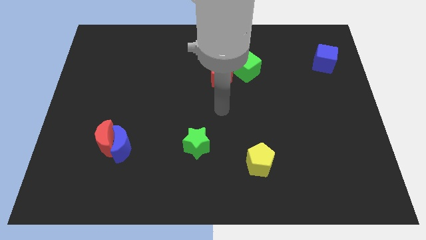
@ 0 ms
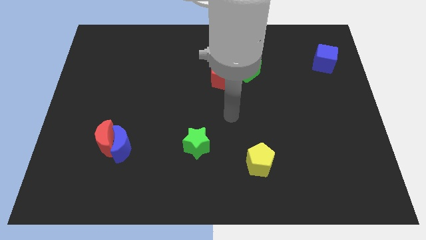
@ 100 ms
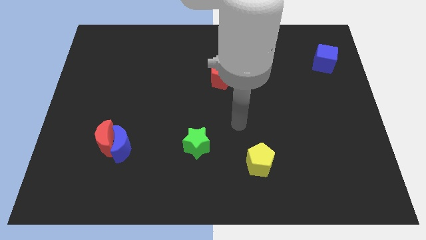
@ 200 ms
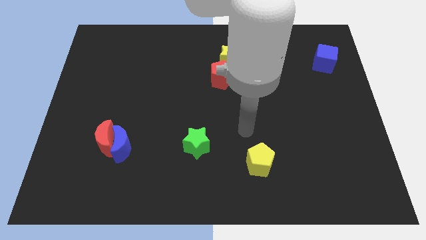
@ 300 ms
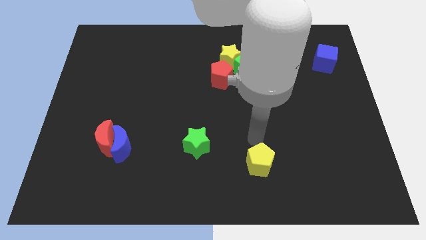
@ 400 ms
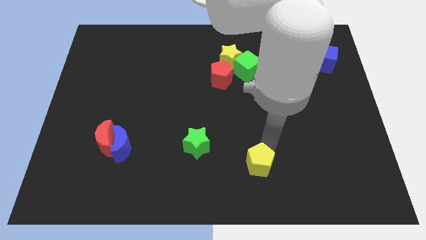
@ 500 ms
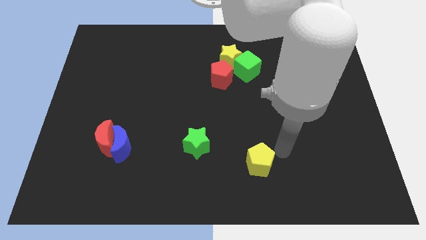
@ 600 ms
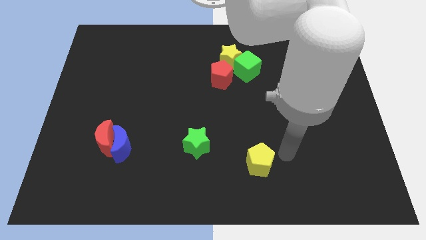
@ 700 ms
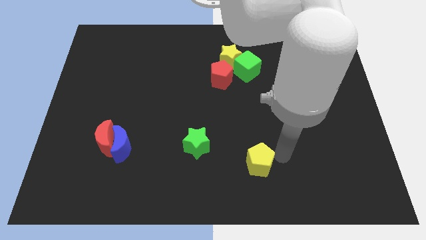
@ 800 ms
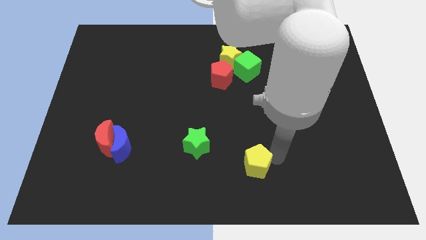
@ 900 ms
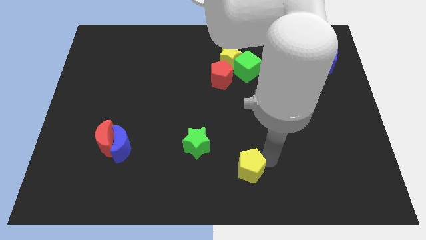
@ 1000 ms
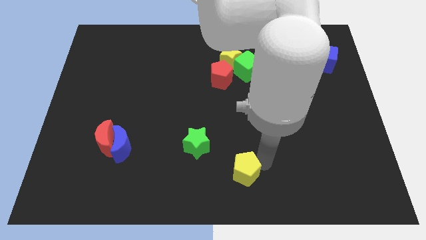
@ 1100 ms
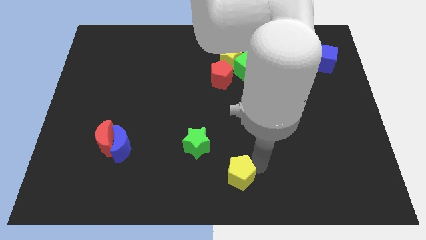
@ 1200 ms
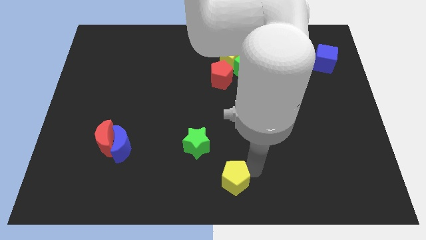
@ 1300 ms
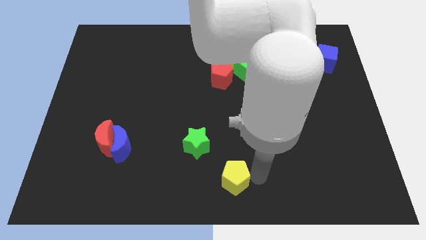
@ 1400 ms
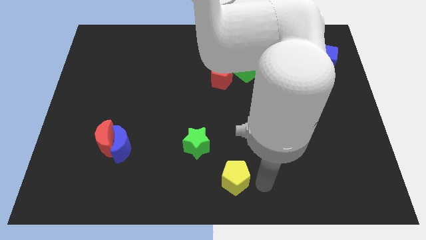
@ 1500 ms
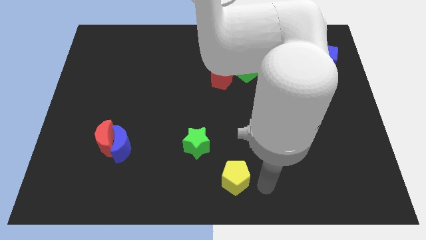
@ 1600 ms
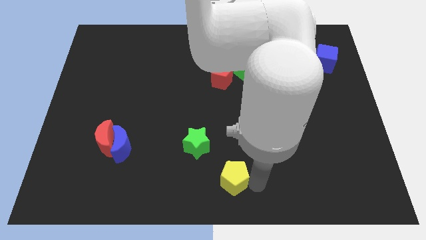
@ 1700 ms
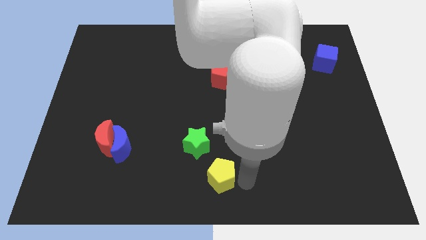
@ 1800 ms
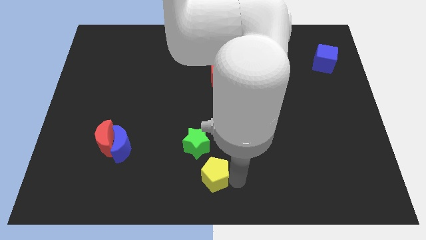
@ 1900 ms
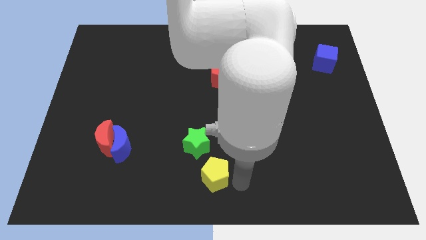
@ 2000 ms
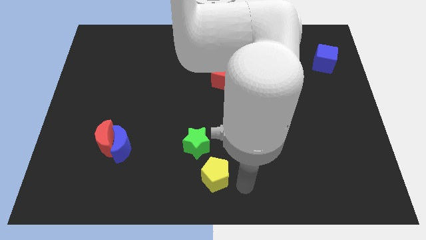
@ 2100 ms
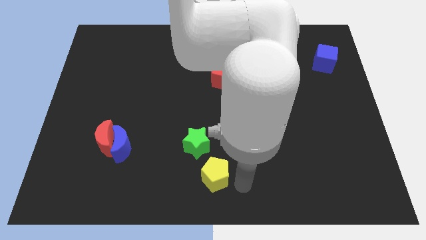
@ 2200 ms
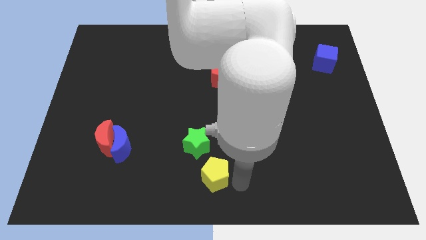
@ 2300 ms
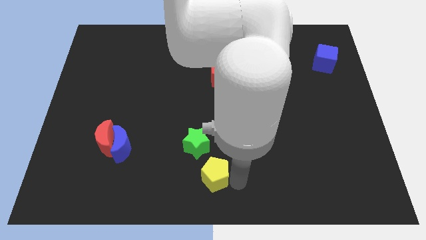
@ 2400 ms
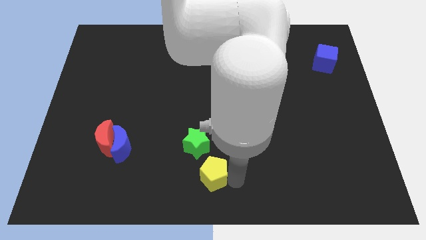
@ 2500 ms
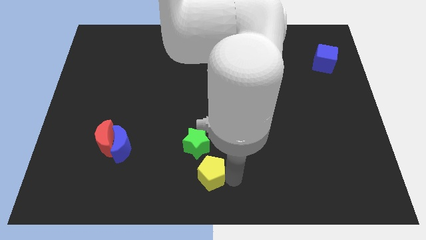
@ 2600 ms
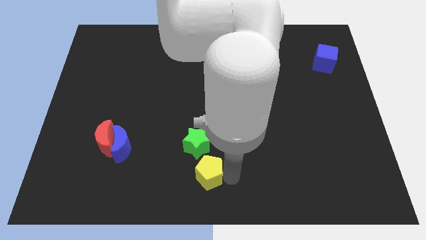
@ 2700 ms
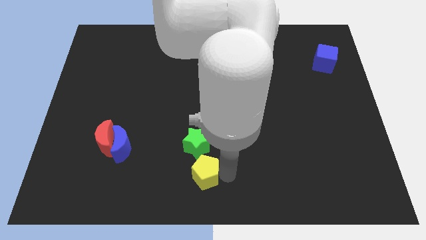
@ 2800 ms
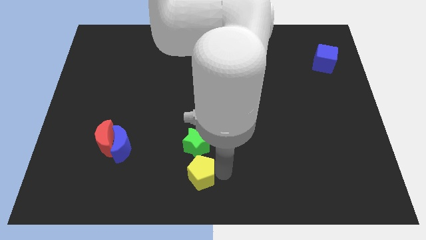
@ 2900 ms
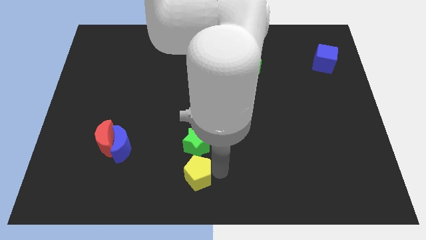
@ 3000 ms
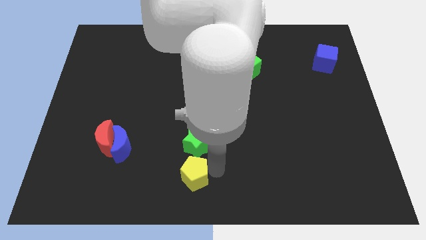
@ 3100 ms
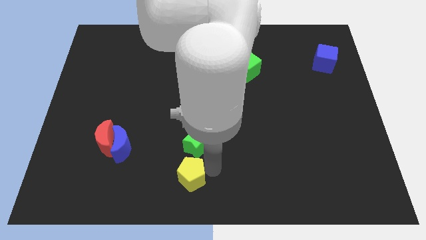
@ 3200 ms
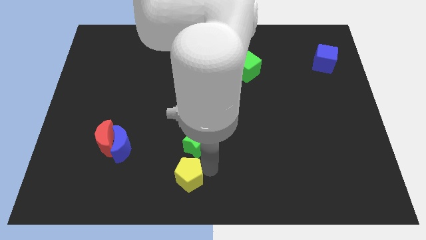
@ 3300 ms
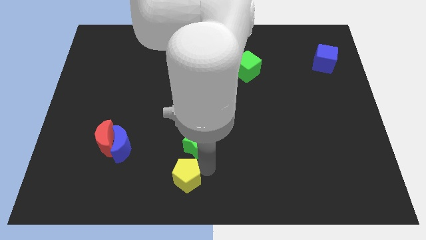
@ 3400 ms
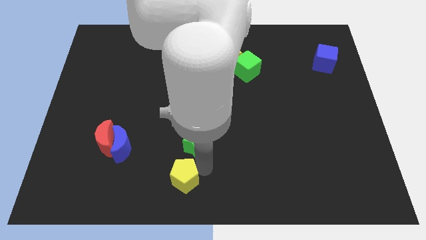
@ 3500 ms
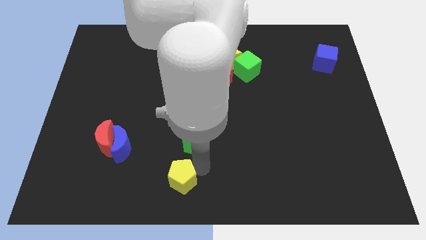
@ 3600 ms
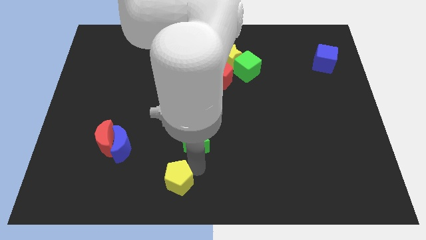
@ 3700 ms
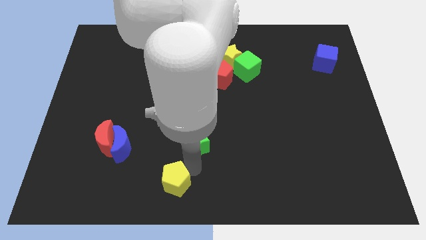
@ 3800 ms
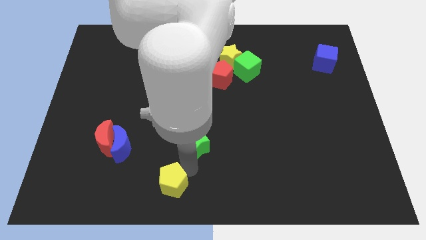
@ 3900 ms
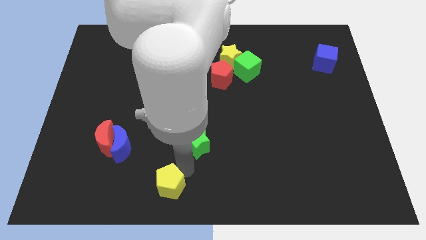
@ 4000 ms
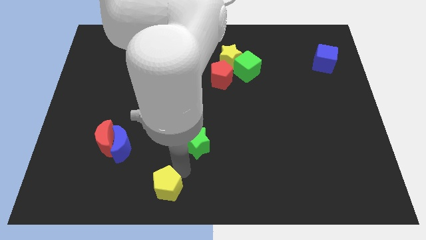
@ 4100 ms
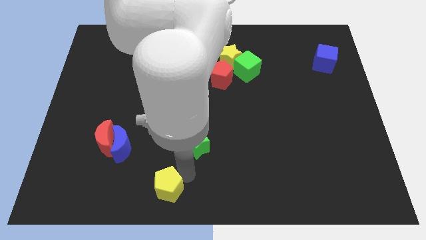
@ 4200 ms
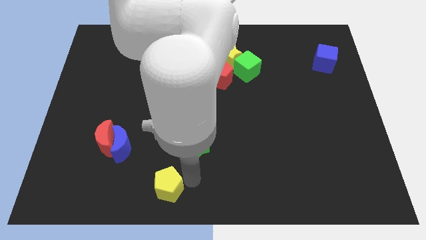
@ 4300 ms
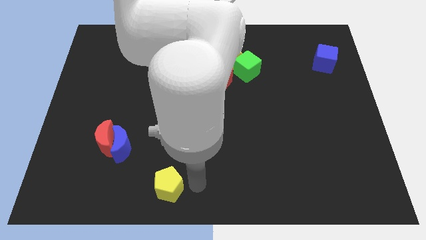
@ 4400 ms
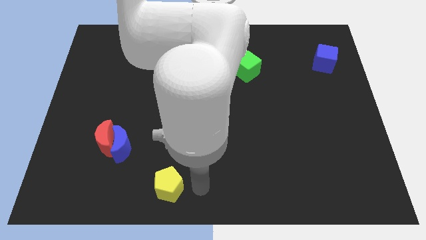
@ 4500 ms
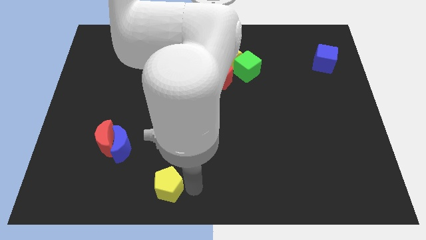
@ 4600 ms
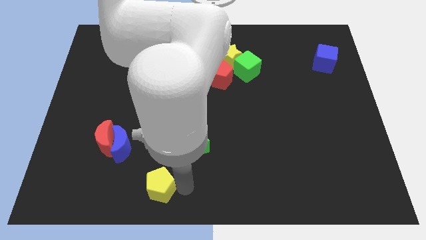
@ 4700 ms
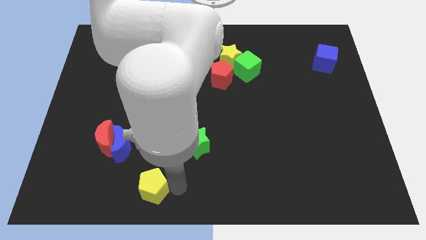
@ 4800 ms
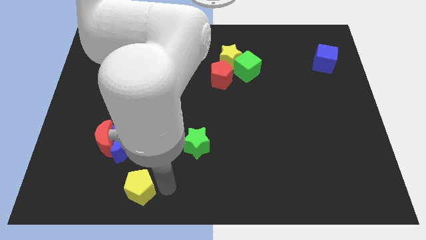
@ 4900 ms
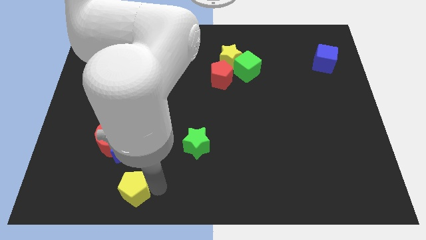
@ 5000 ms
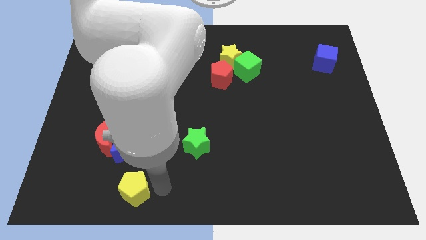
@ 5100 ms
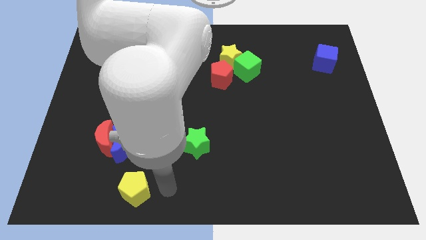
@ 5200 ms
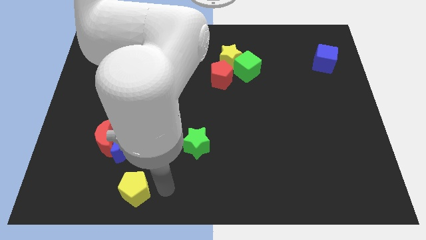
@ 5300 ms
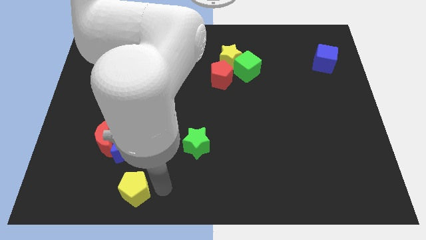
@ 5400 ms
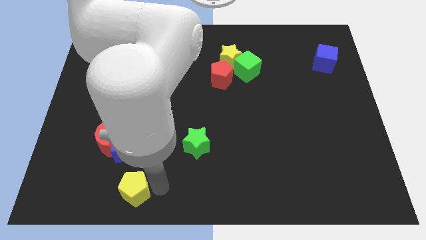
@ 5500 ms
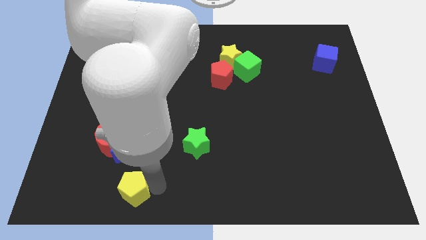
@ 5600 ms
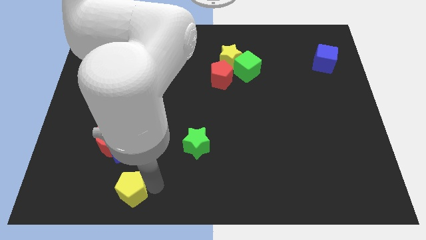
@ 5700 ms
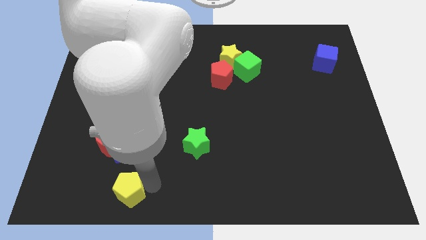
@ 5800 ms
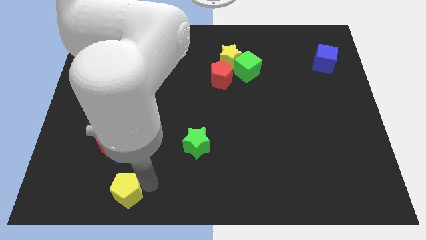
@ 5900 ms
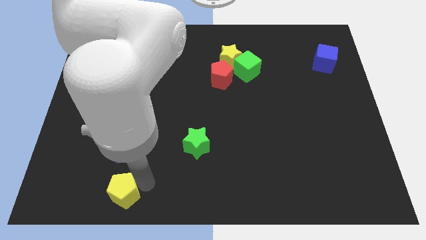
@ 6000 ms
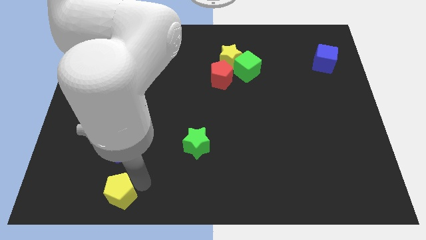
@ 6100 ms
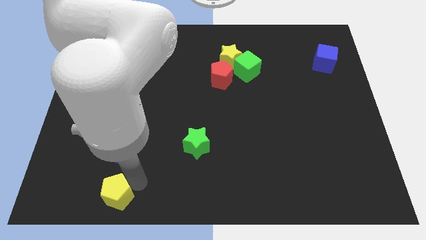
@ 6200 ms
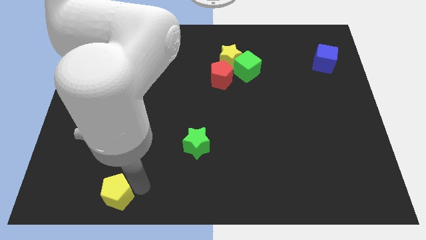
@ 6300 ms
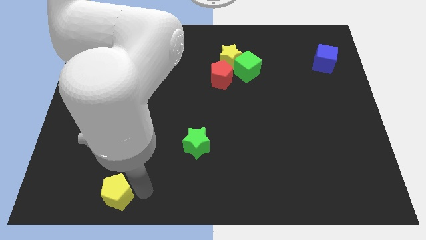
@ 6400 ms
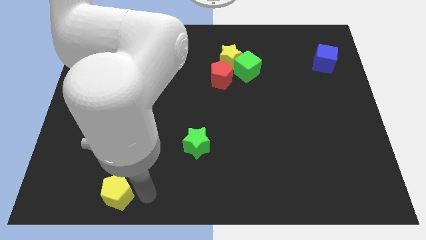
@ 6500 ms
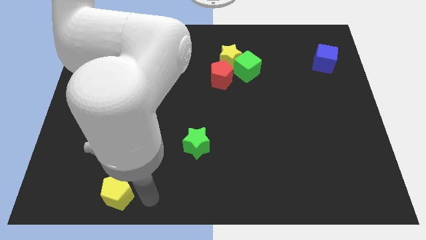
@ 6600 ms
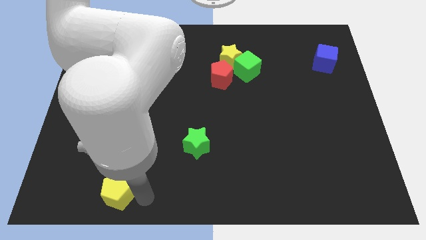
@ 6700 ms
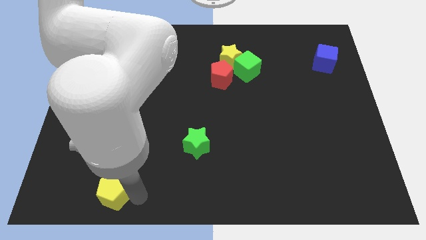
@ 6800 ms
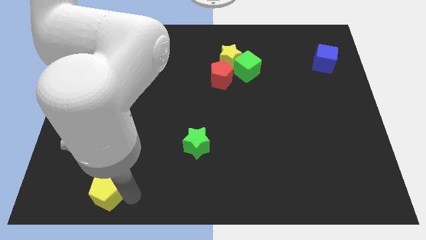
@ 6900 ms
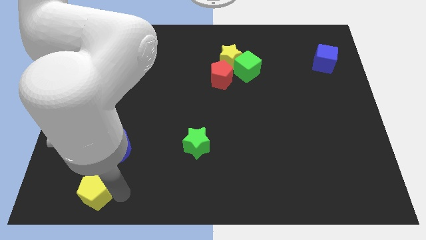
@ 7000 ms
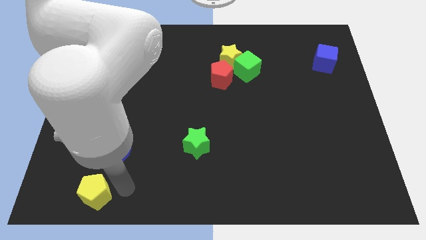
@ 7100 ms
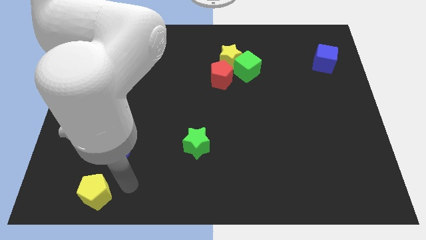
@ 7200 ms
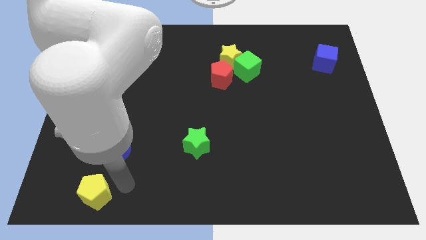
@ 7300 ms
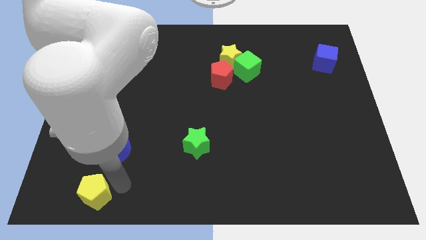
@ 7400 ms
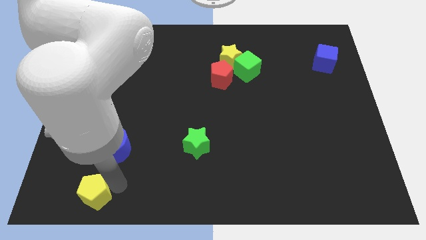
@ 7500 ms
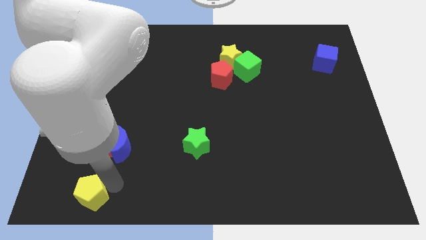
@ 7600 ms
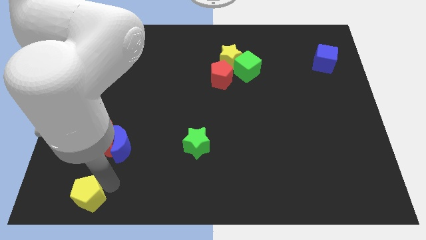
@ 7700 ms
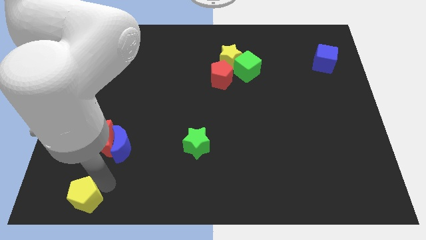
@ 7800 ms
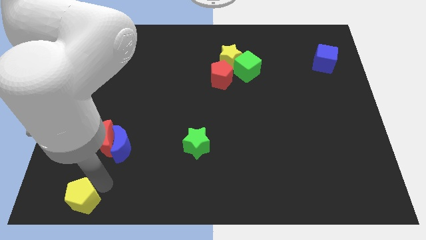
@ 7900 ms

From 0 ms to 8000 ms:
put the yellow pentagon to the lower left corner
